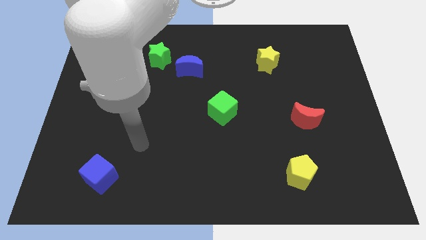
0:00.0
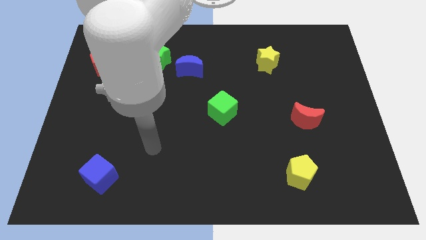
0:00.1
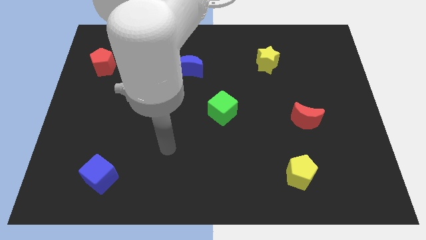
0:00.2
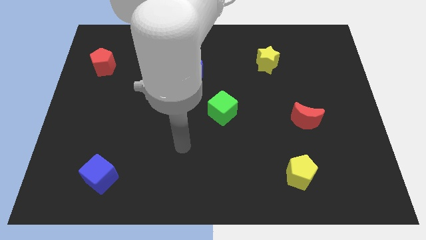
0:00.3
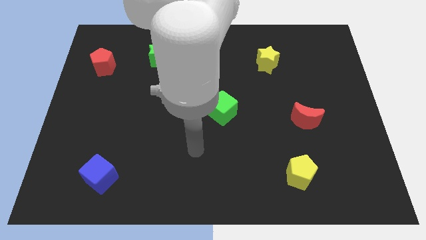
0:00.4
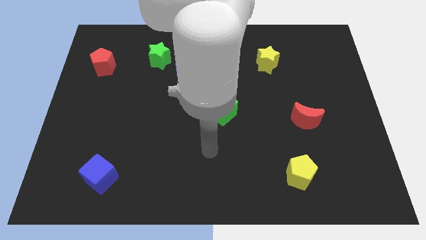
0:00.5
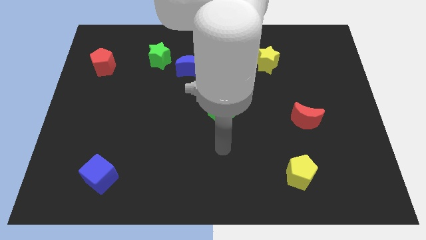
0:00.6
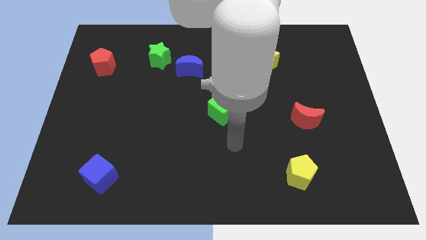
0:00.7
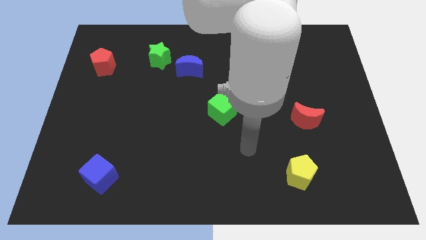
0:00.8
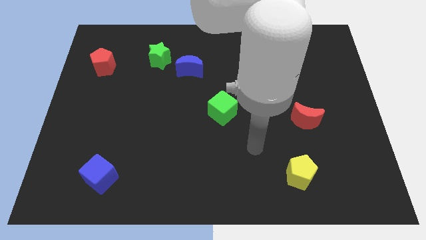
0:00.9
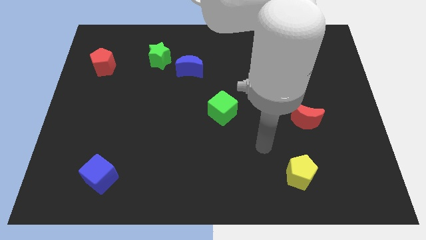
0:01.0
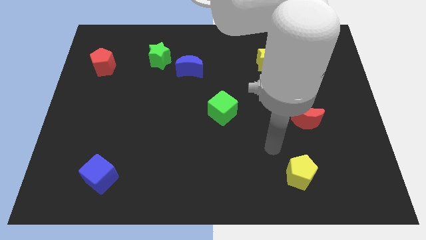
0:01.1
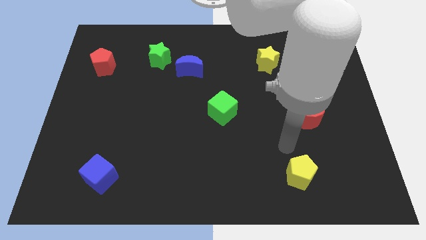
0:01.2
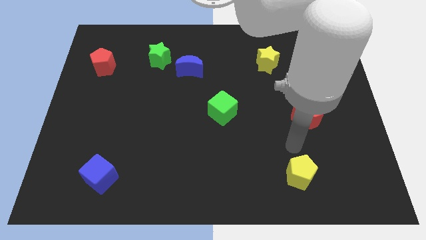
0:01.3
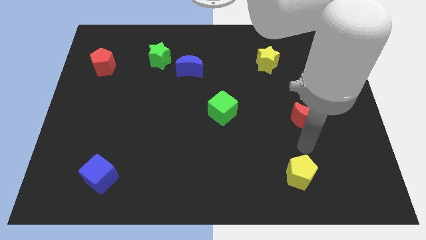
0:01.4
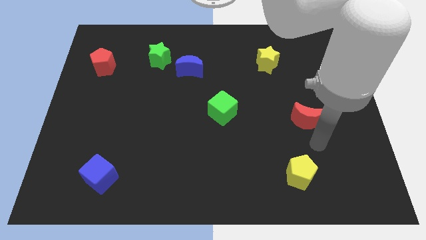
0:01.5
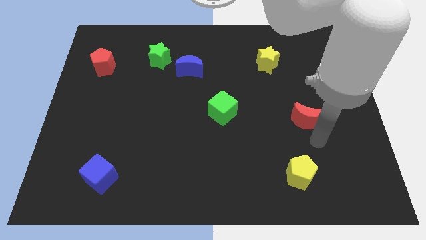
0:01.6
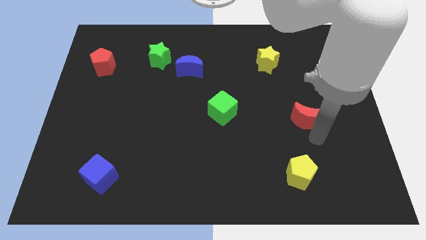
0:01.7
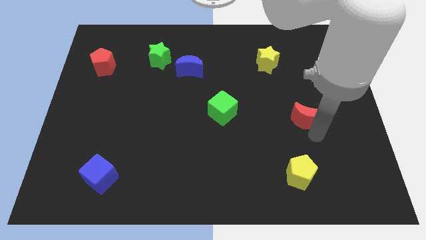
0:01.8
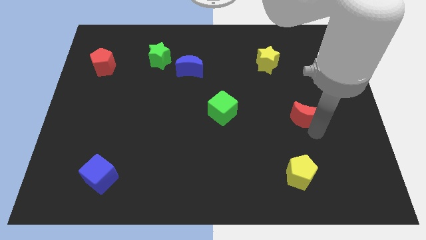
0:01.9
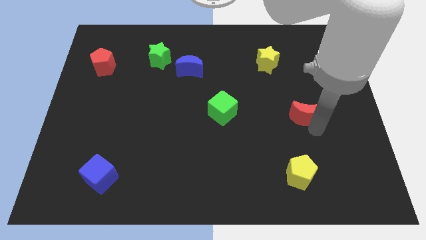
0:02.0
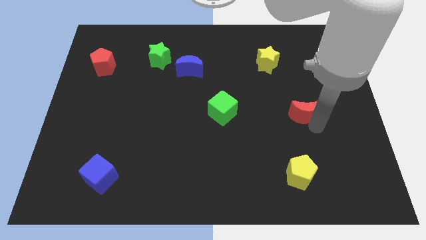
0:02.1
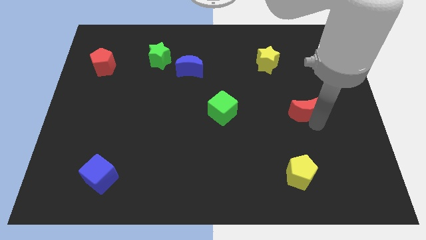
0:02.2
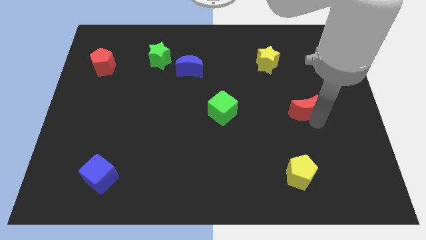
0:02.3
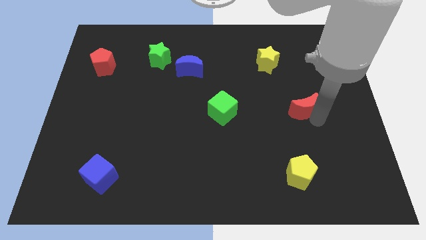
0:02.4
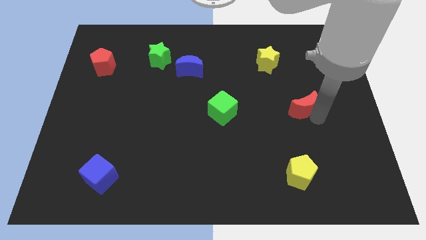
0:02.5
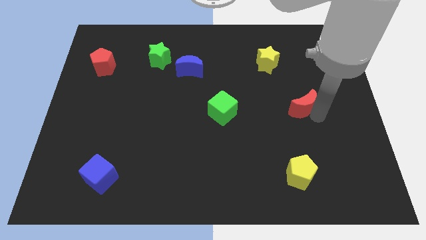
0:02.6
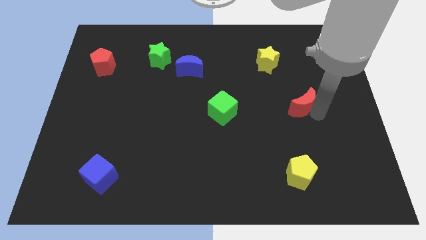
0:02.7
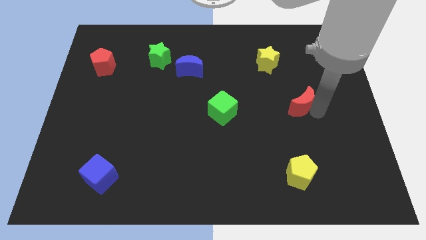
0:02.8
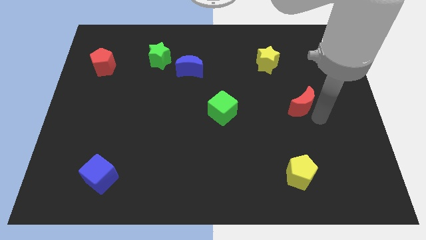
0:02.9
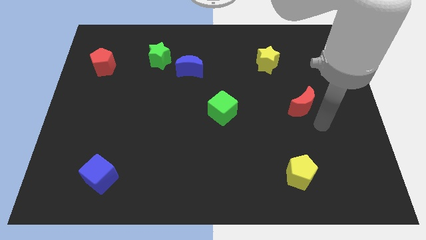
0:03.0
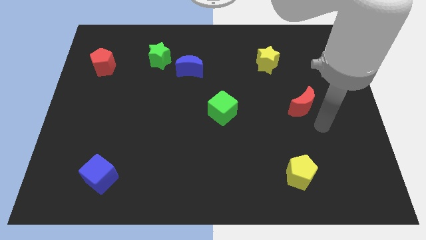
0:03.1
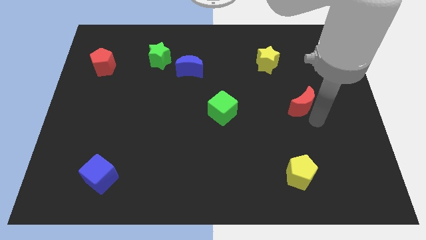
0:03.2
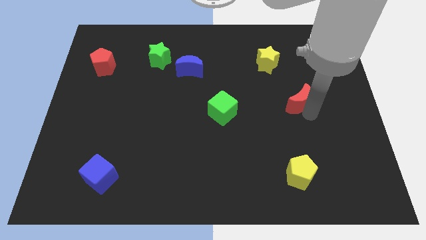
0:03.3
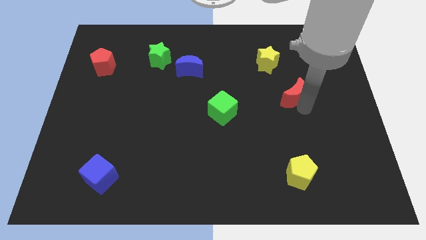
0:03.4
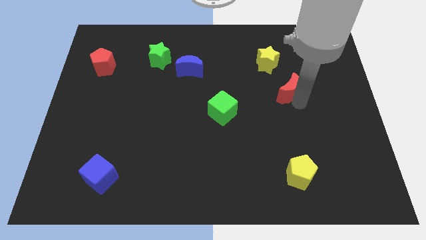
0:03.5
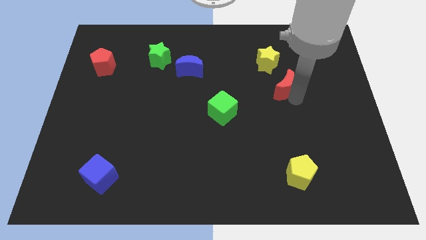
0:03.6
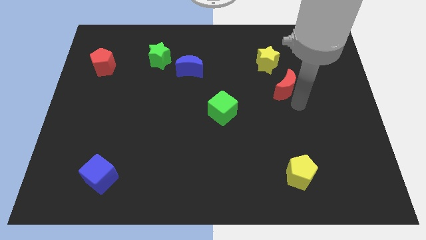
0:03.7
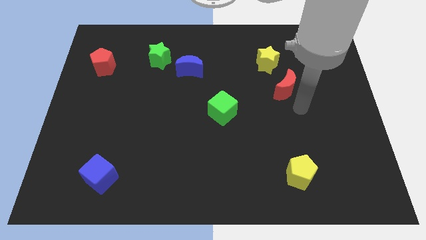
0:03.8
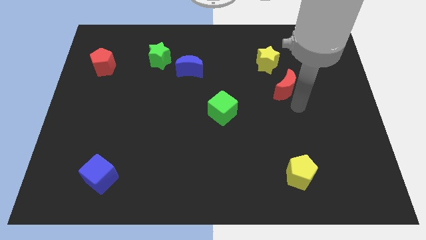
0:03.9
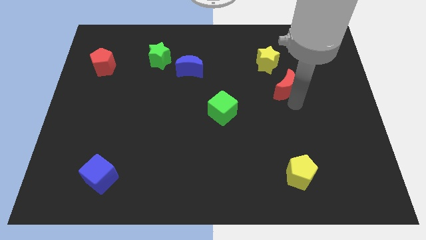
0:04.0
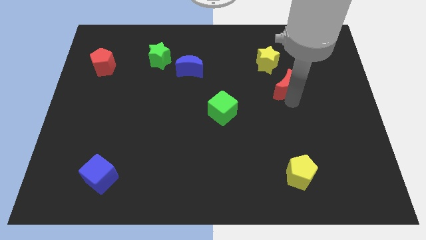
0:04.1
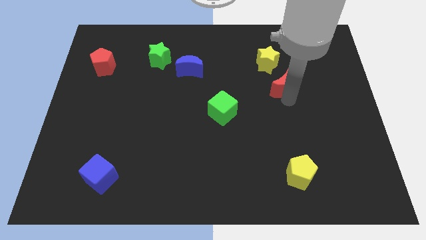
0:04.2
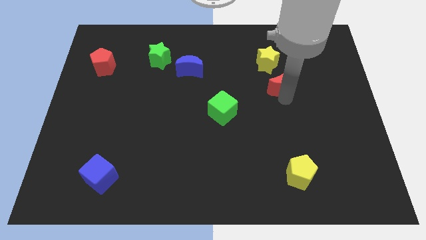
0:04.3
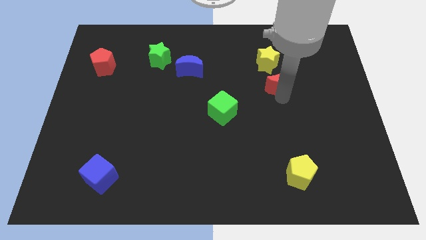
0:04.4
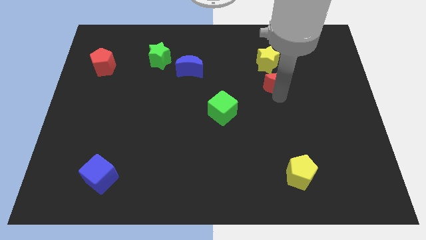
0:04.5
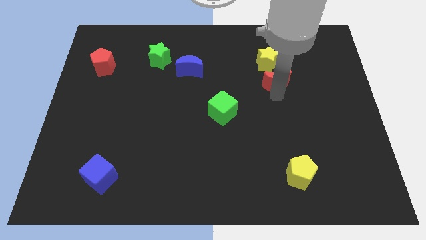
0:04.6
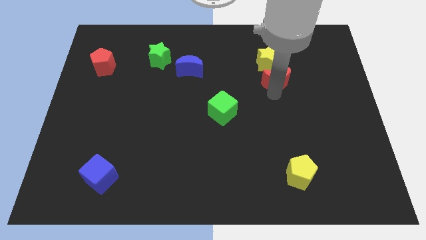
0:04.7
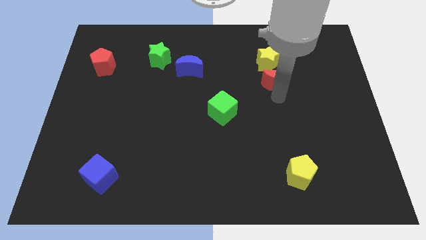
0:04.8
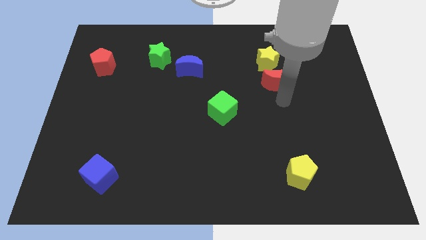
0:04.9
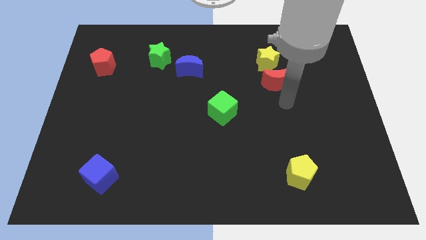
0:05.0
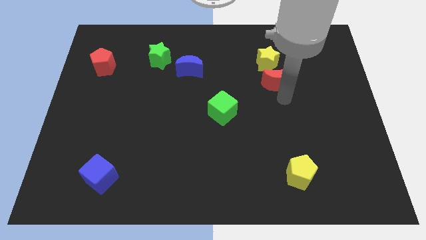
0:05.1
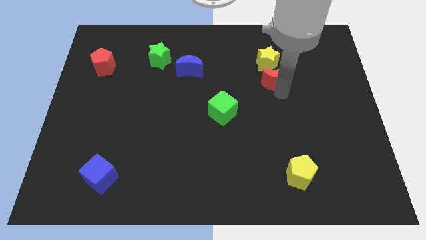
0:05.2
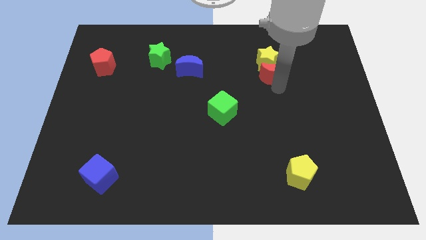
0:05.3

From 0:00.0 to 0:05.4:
push the red moon close to the yellow star

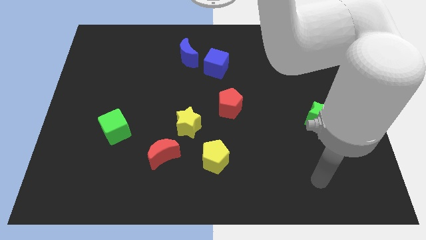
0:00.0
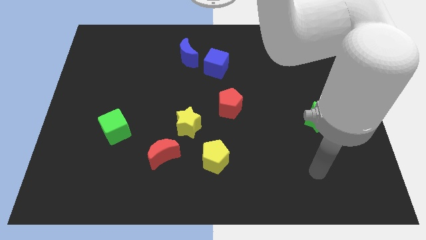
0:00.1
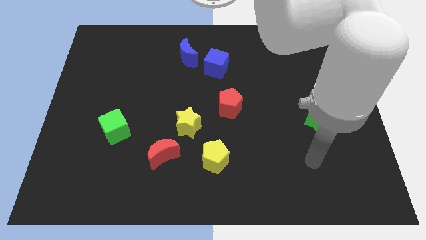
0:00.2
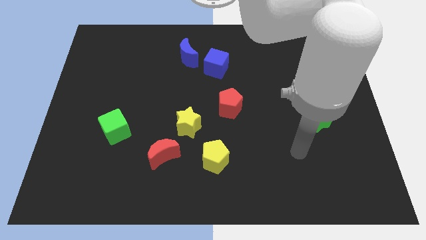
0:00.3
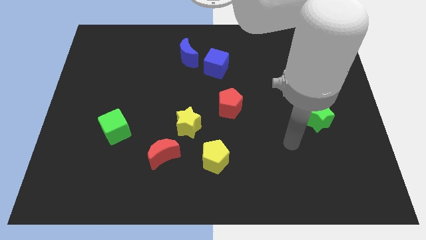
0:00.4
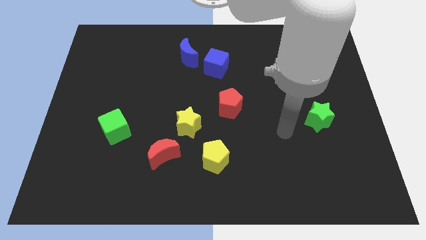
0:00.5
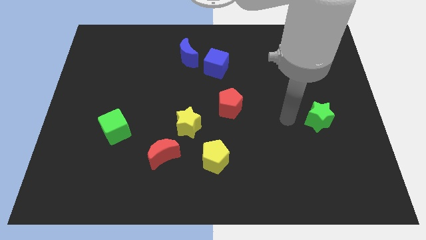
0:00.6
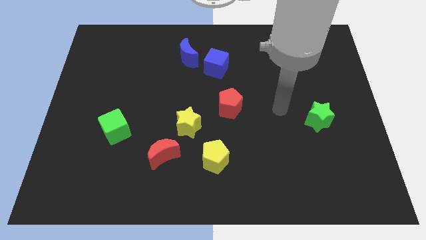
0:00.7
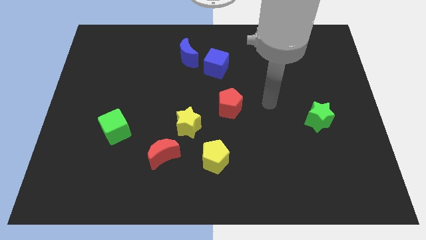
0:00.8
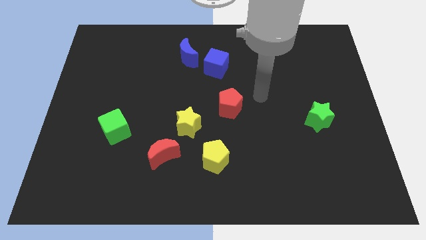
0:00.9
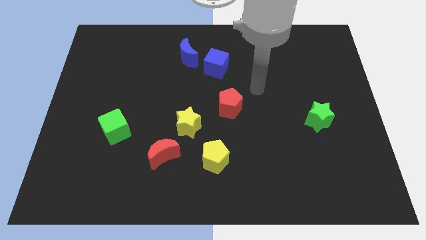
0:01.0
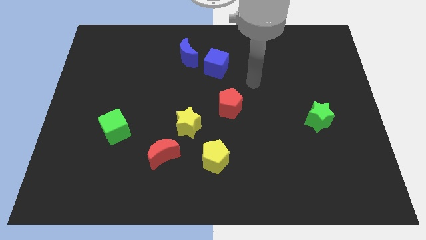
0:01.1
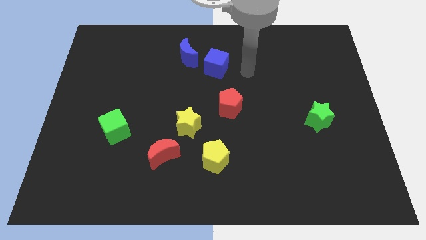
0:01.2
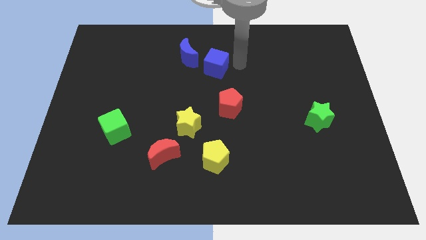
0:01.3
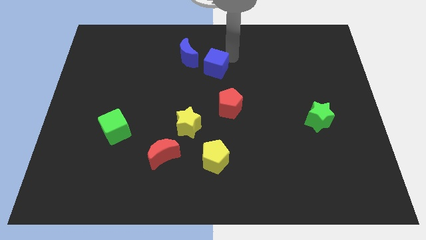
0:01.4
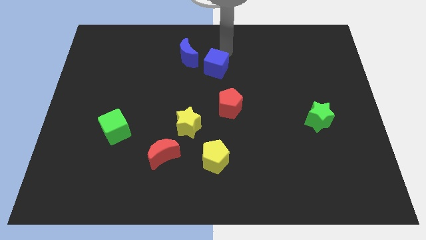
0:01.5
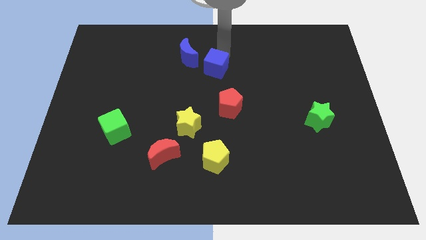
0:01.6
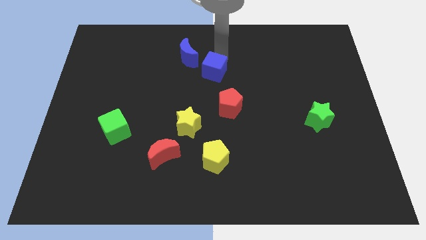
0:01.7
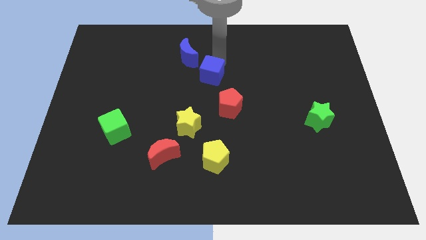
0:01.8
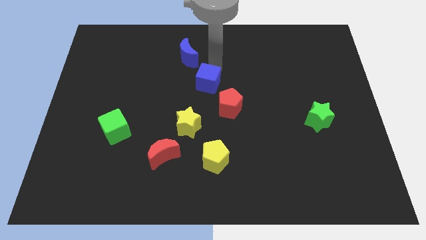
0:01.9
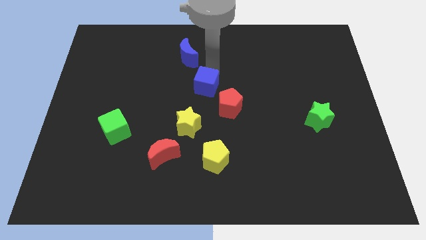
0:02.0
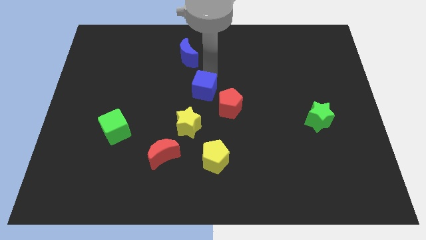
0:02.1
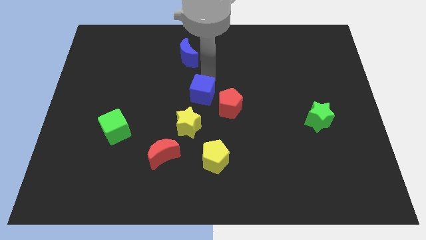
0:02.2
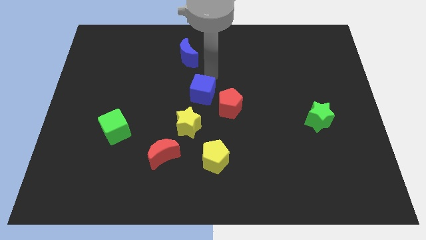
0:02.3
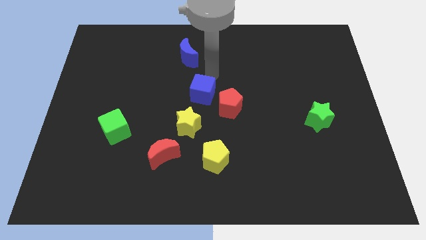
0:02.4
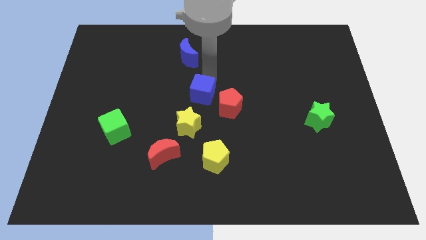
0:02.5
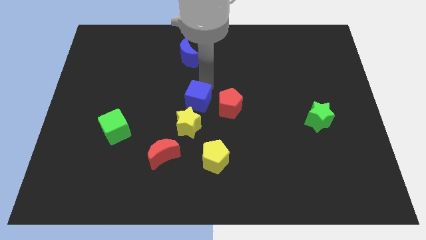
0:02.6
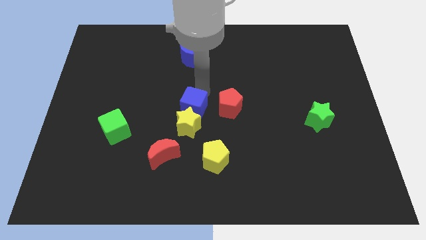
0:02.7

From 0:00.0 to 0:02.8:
move the blue cube close to the yellow star
